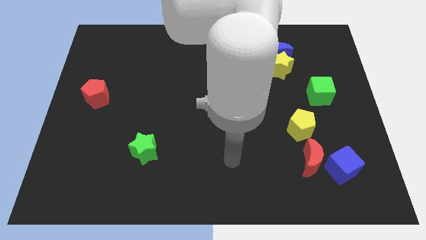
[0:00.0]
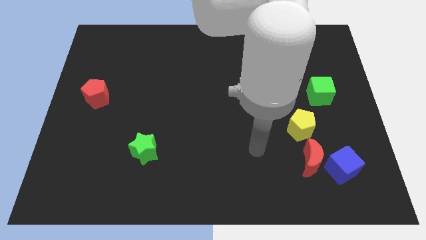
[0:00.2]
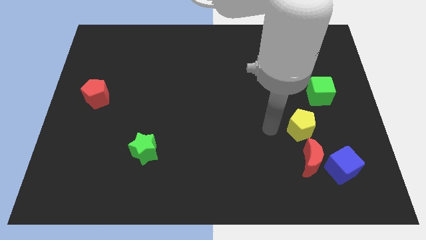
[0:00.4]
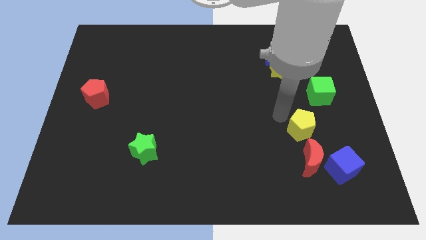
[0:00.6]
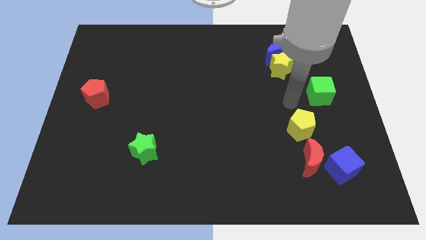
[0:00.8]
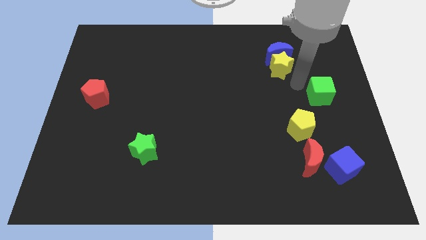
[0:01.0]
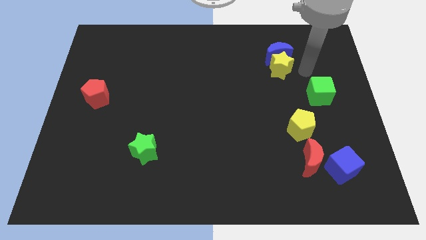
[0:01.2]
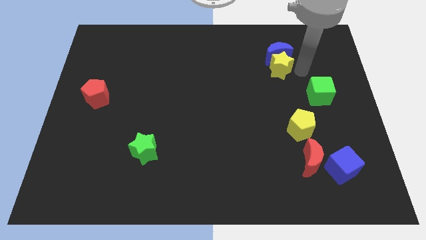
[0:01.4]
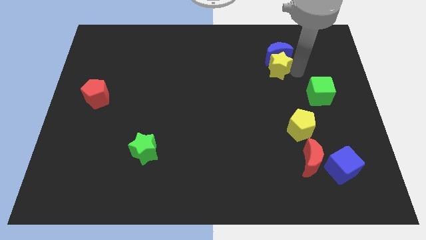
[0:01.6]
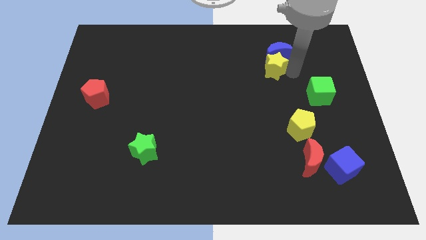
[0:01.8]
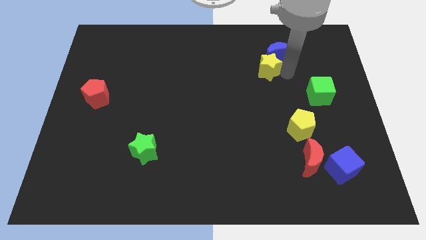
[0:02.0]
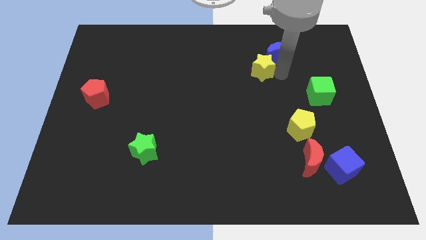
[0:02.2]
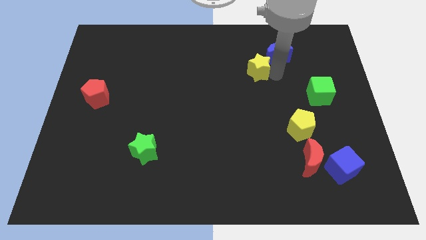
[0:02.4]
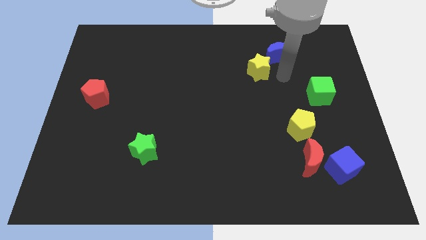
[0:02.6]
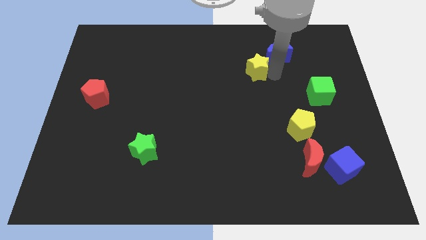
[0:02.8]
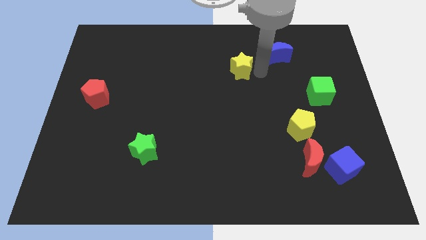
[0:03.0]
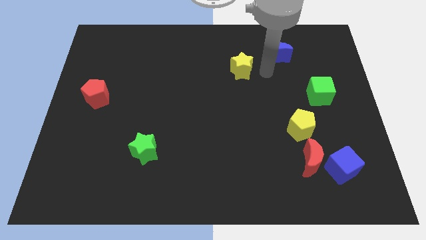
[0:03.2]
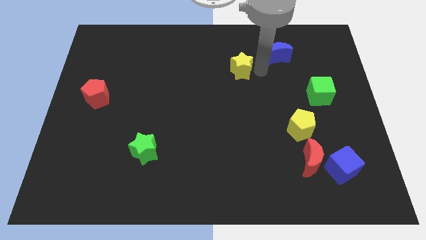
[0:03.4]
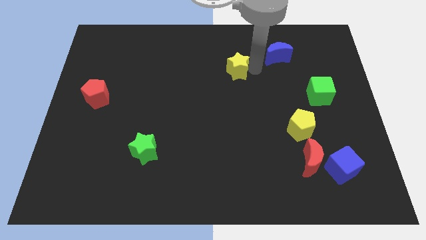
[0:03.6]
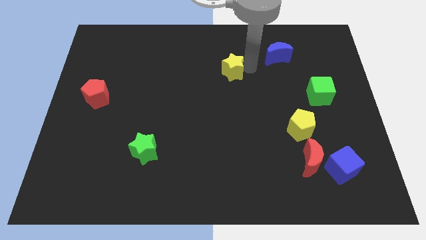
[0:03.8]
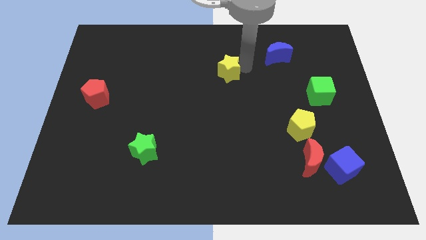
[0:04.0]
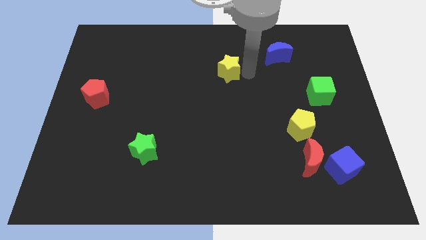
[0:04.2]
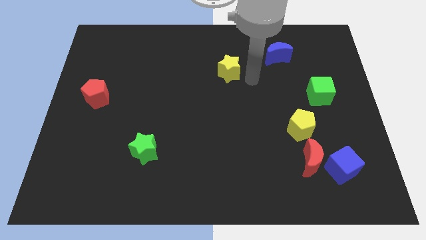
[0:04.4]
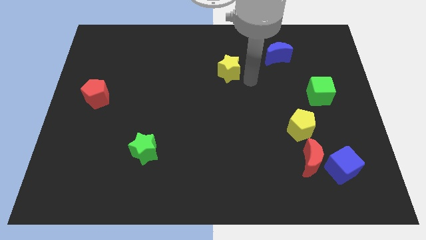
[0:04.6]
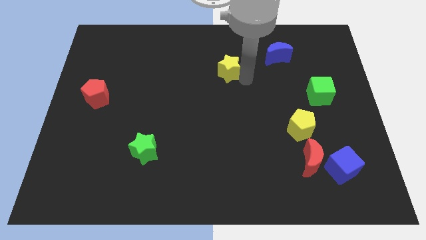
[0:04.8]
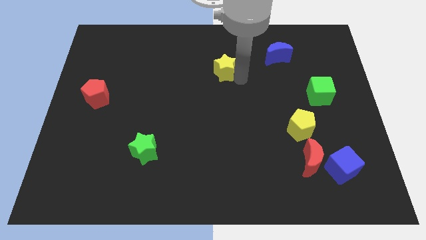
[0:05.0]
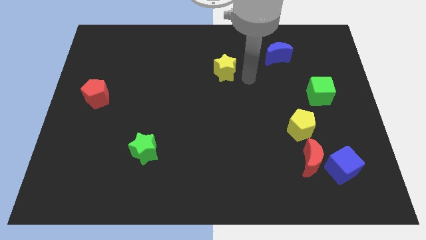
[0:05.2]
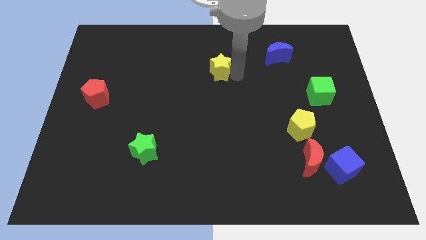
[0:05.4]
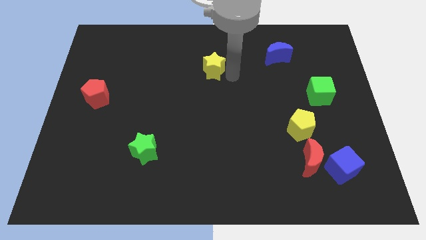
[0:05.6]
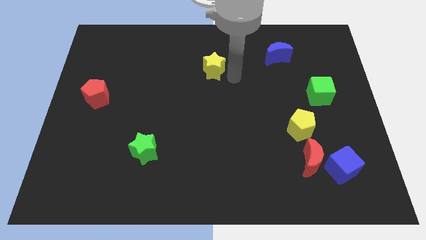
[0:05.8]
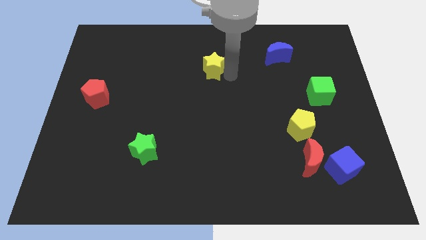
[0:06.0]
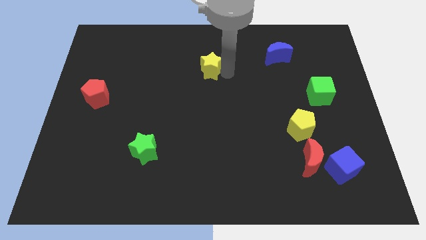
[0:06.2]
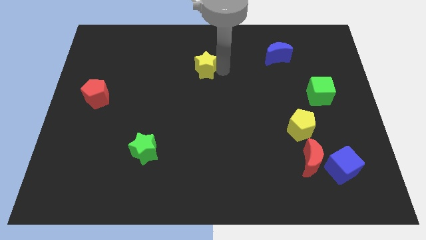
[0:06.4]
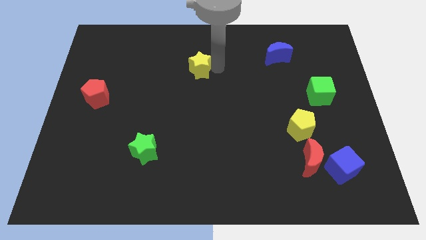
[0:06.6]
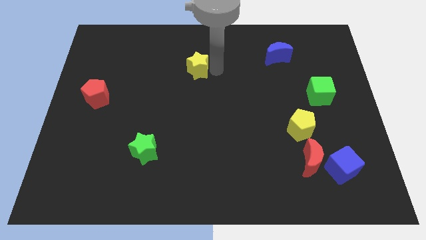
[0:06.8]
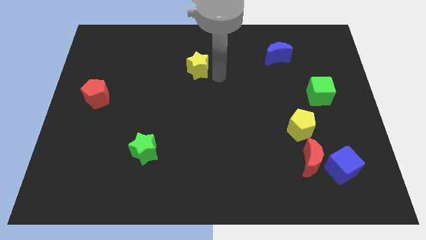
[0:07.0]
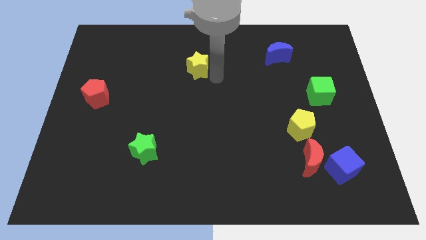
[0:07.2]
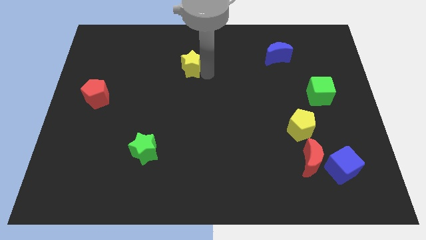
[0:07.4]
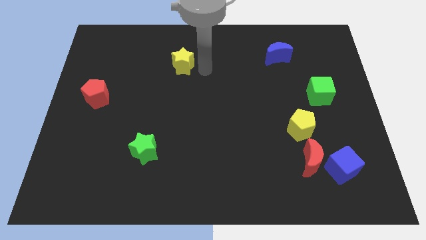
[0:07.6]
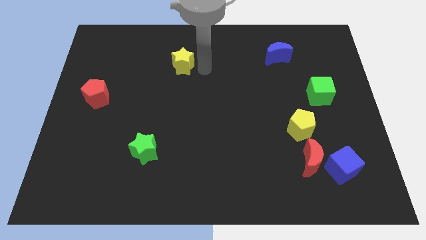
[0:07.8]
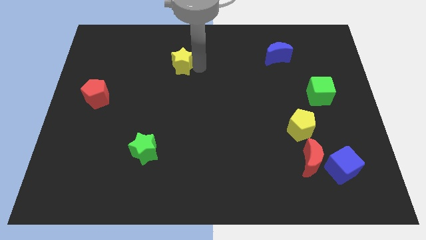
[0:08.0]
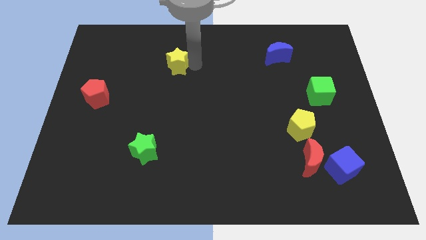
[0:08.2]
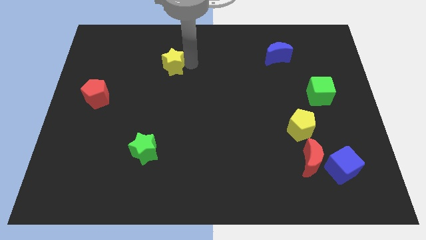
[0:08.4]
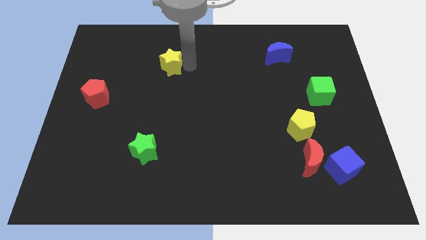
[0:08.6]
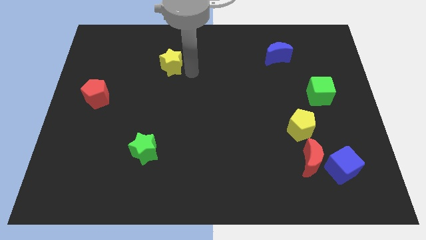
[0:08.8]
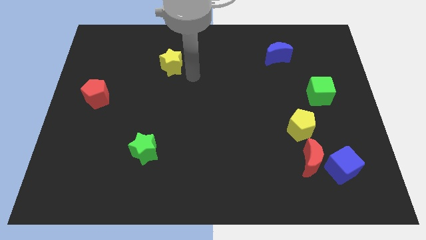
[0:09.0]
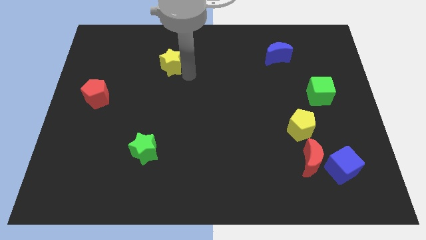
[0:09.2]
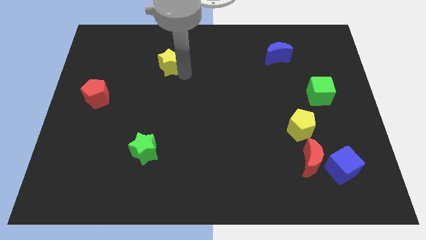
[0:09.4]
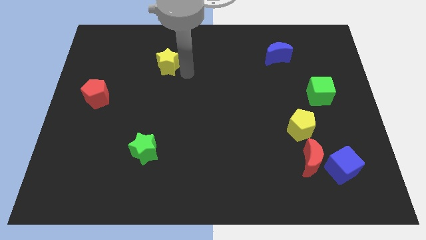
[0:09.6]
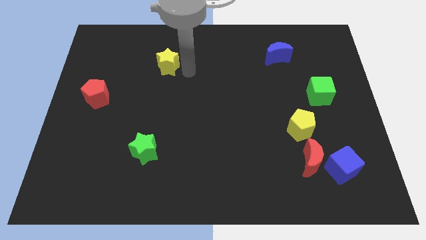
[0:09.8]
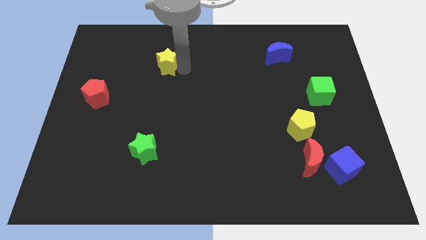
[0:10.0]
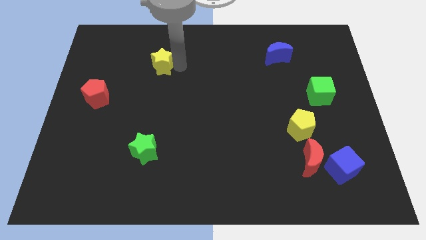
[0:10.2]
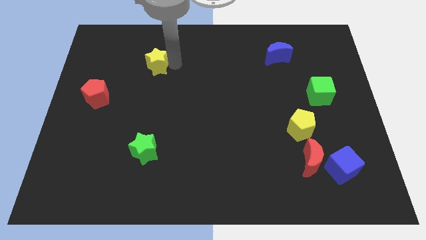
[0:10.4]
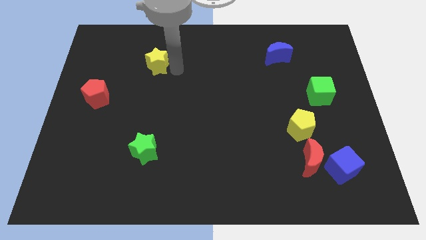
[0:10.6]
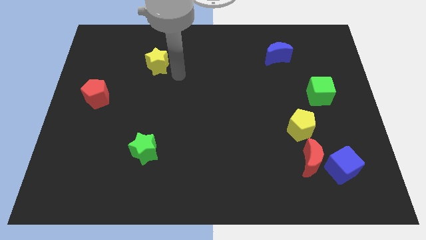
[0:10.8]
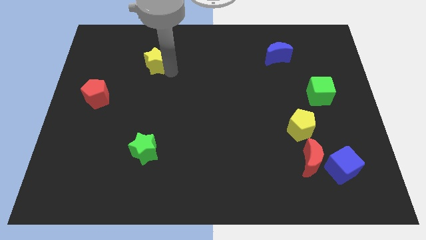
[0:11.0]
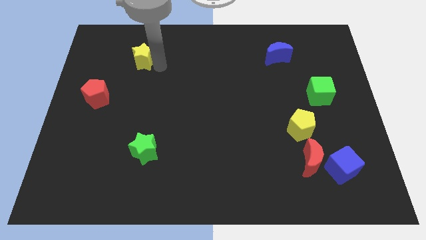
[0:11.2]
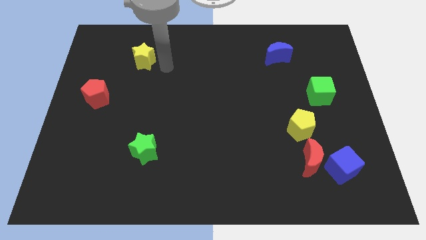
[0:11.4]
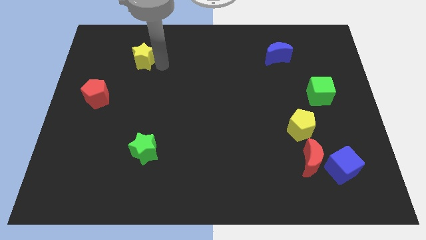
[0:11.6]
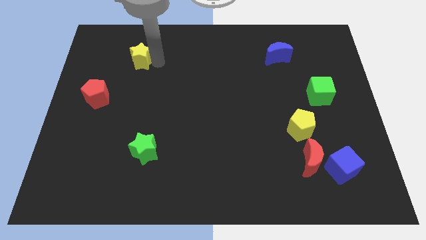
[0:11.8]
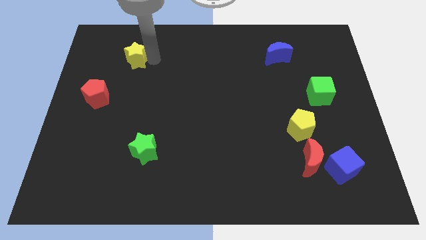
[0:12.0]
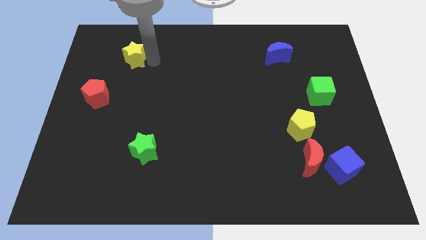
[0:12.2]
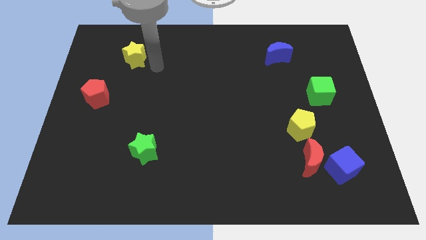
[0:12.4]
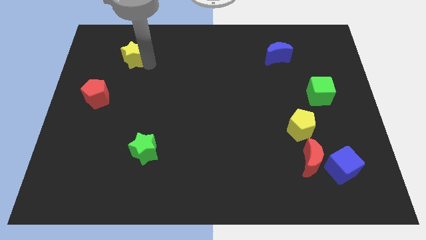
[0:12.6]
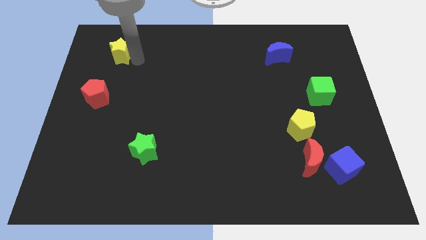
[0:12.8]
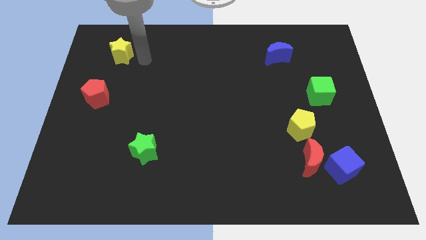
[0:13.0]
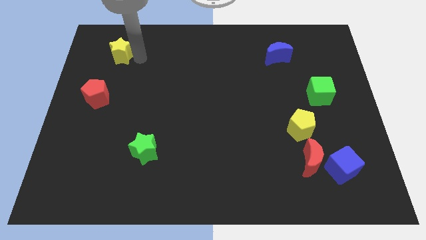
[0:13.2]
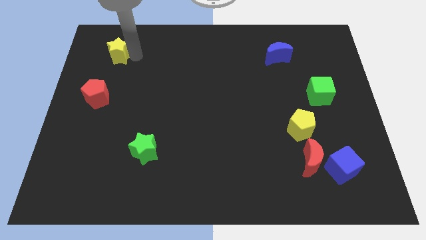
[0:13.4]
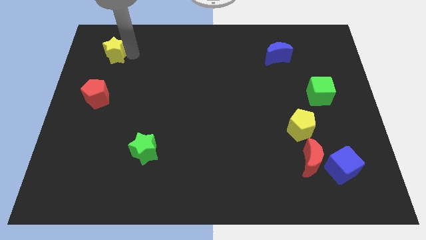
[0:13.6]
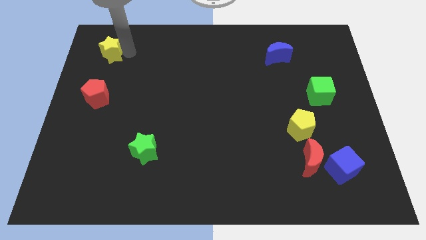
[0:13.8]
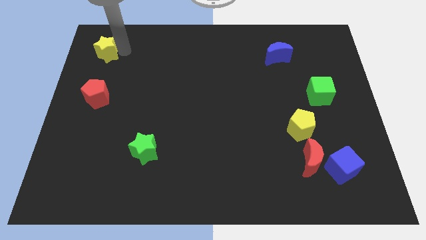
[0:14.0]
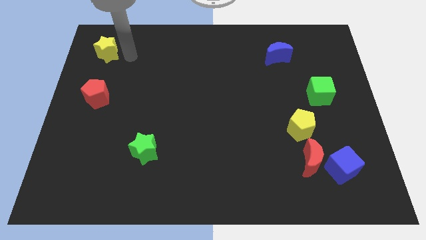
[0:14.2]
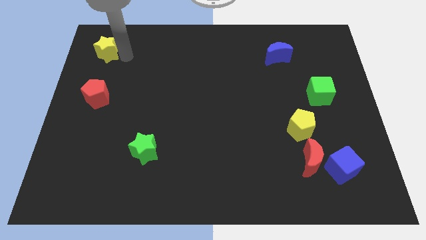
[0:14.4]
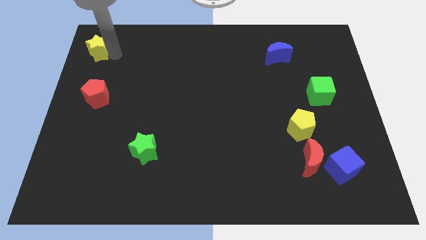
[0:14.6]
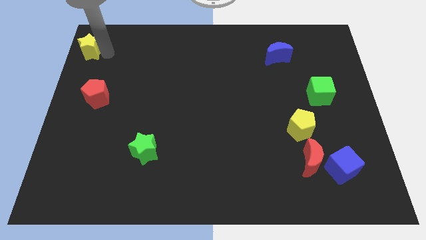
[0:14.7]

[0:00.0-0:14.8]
push the yellow star to the top left of the board
